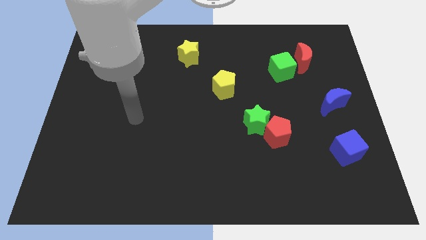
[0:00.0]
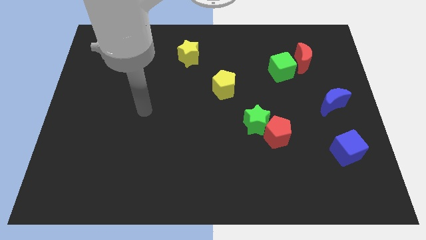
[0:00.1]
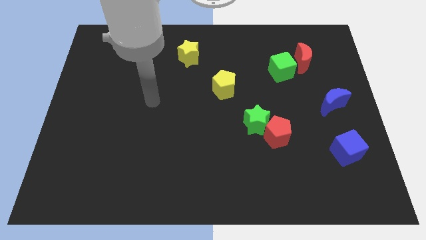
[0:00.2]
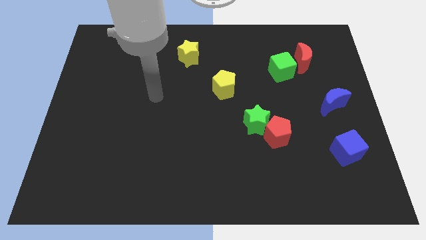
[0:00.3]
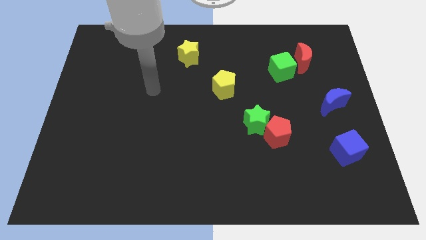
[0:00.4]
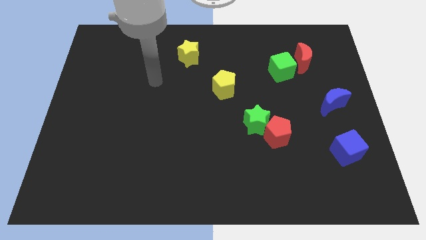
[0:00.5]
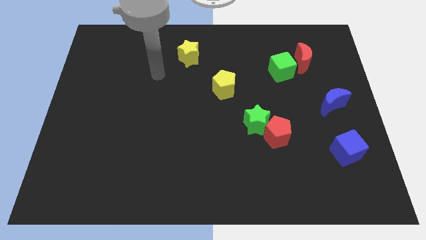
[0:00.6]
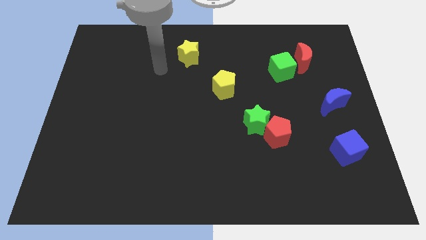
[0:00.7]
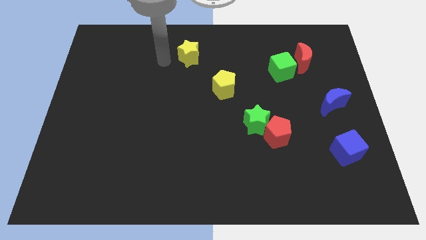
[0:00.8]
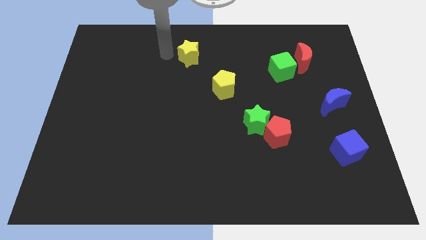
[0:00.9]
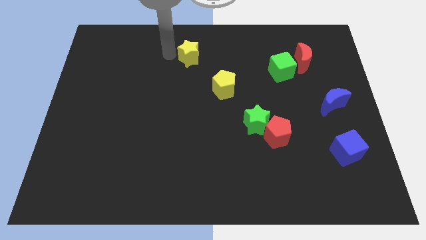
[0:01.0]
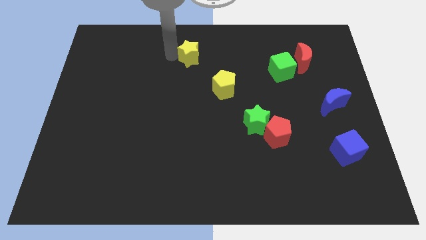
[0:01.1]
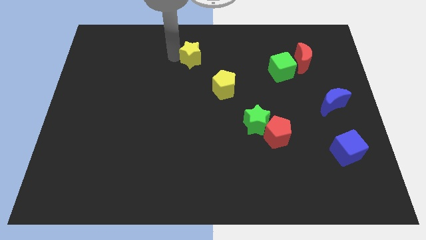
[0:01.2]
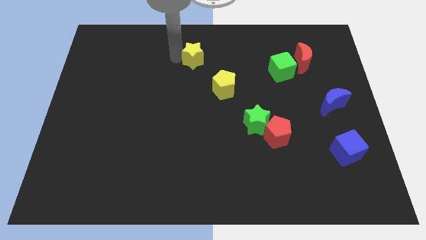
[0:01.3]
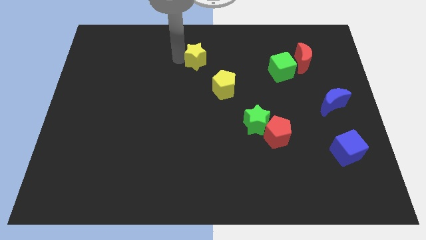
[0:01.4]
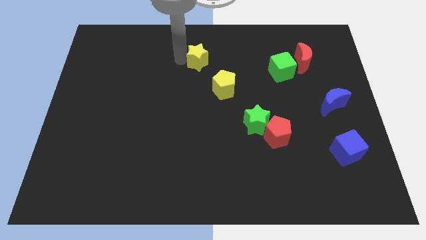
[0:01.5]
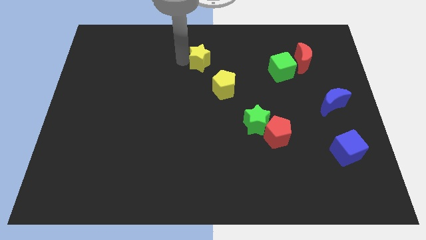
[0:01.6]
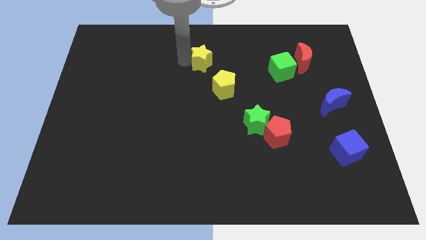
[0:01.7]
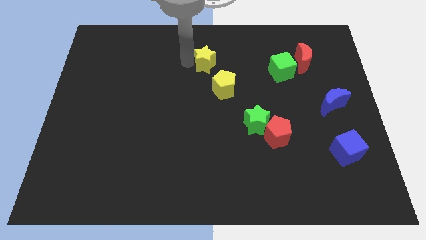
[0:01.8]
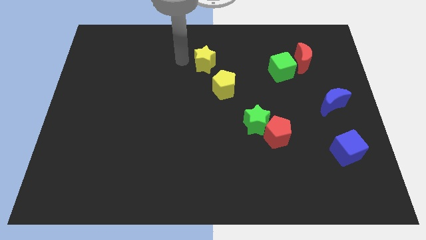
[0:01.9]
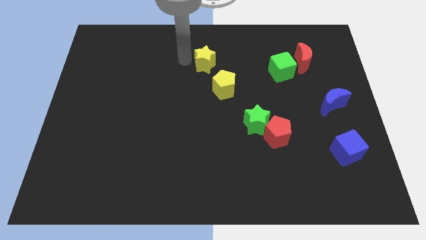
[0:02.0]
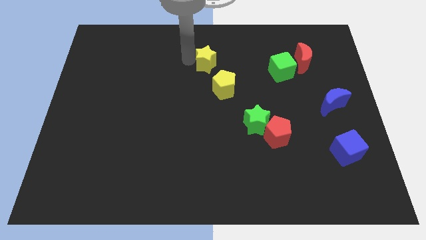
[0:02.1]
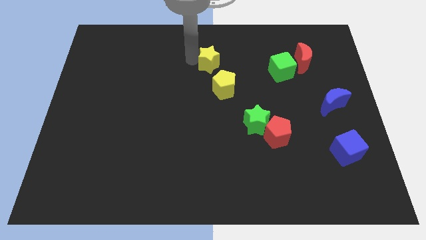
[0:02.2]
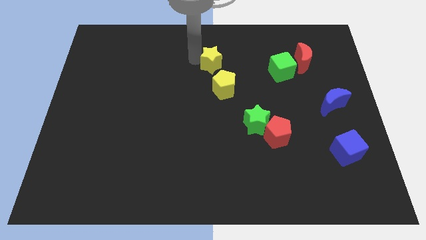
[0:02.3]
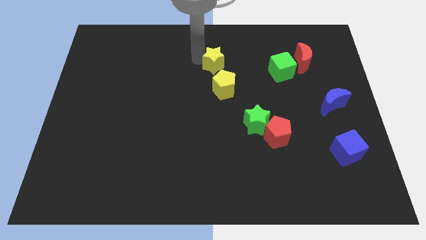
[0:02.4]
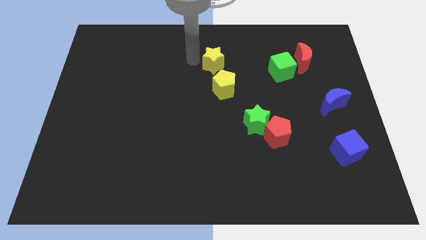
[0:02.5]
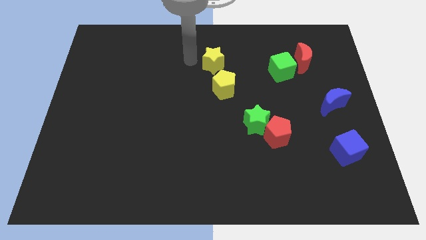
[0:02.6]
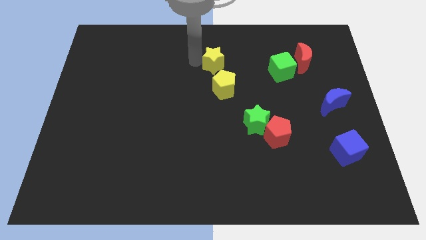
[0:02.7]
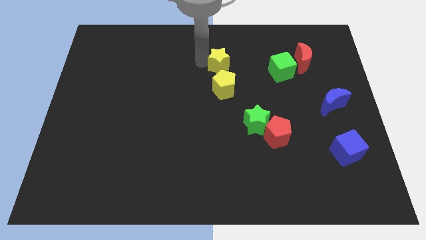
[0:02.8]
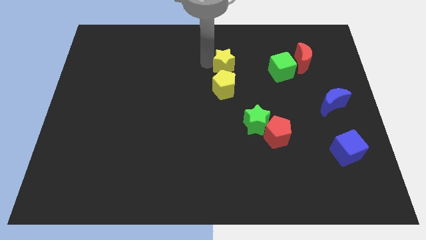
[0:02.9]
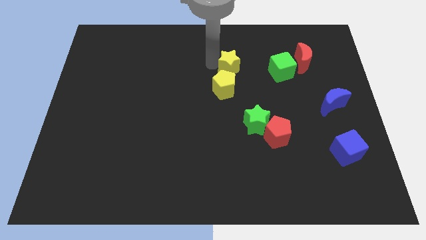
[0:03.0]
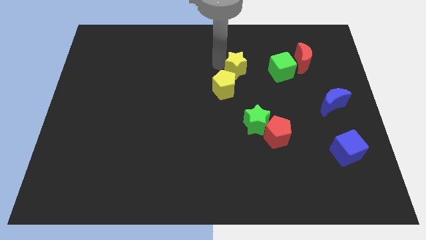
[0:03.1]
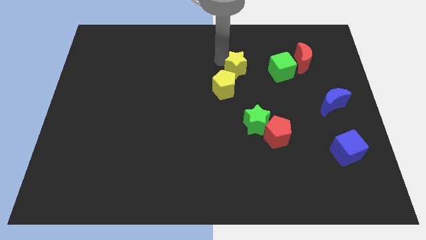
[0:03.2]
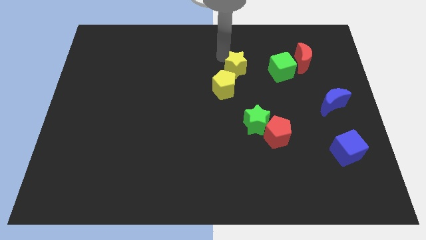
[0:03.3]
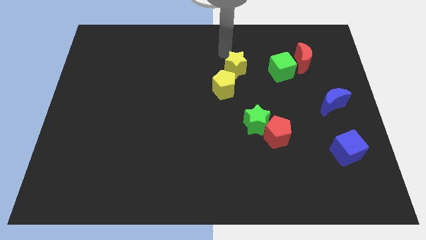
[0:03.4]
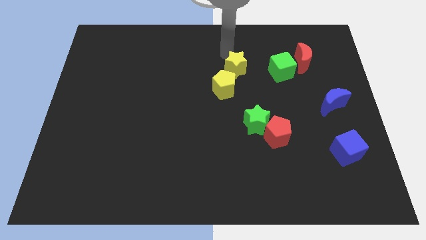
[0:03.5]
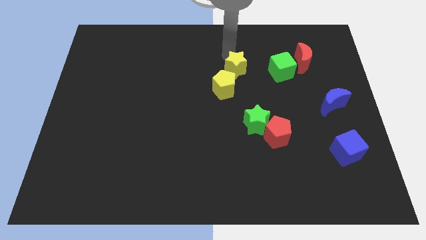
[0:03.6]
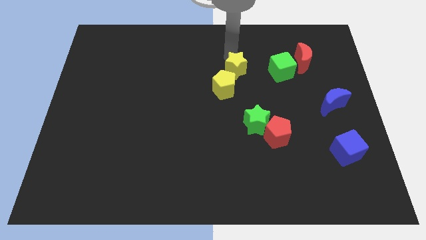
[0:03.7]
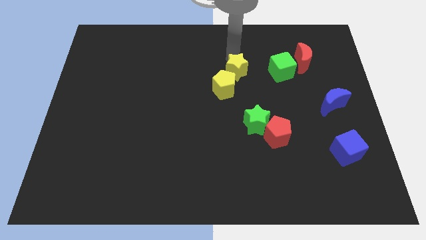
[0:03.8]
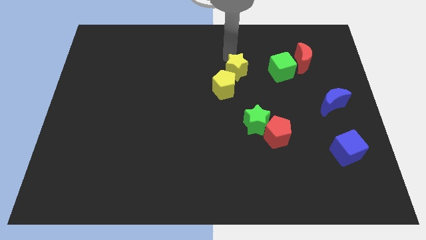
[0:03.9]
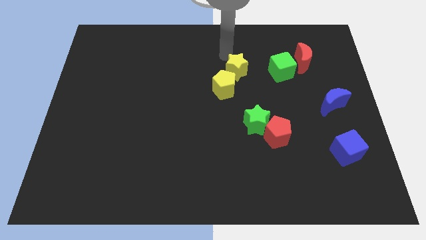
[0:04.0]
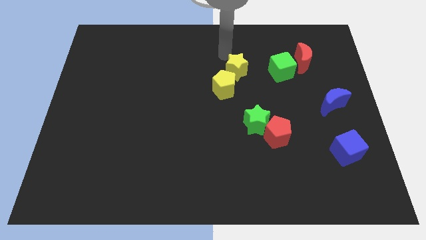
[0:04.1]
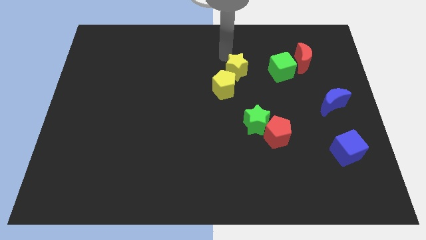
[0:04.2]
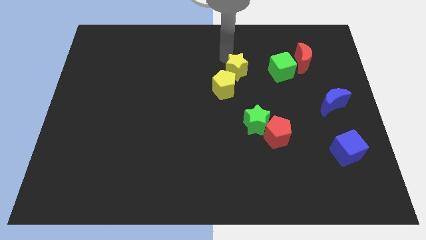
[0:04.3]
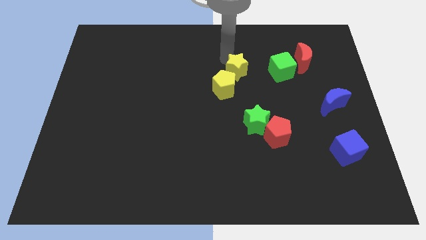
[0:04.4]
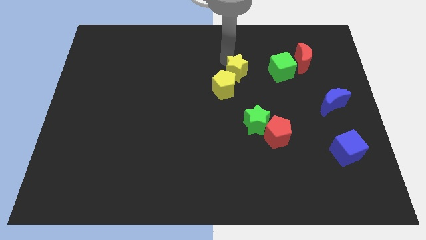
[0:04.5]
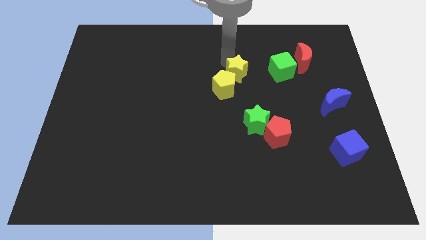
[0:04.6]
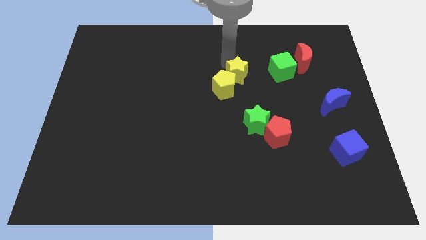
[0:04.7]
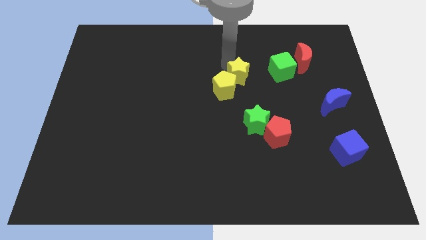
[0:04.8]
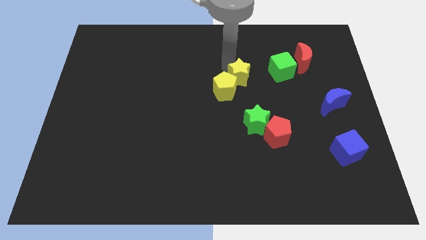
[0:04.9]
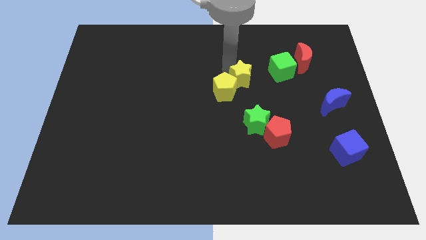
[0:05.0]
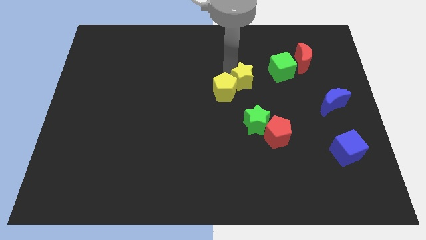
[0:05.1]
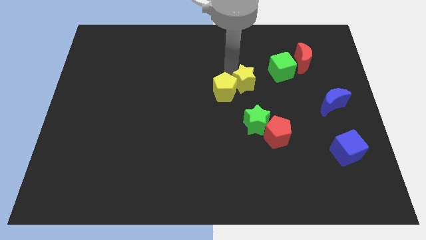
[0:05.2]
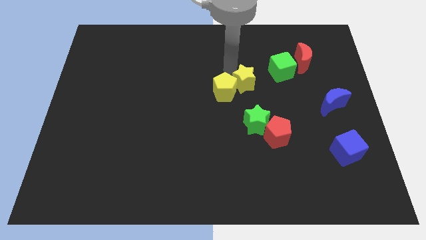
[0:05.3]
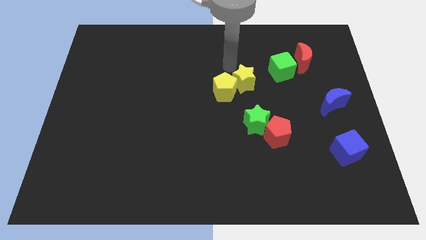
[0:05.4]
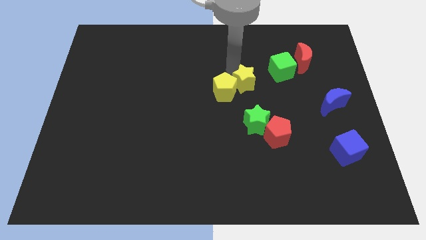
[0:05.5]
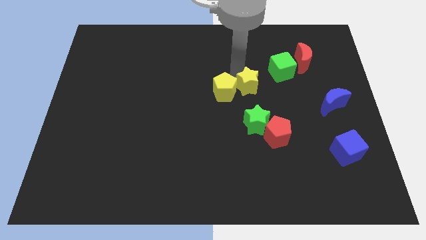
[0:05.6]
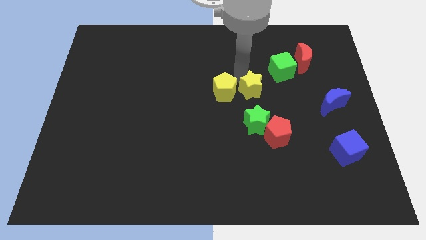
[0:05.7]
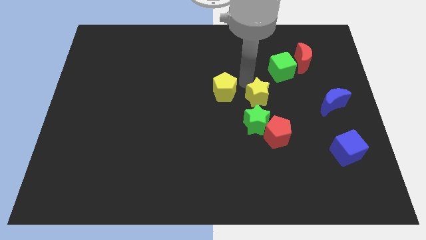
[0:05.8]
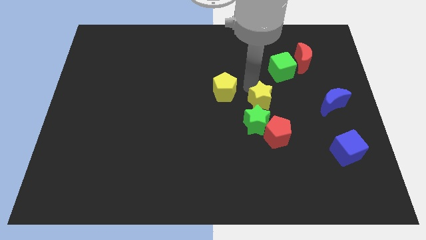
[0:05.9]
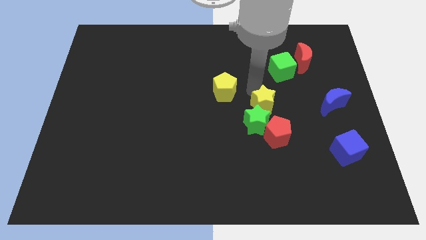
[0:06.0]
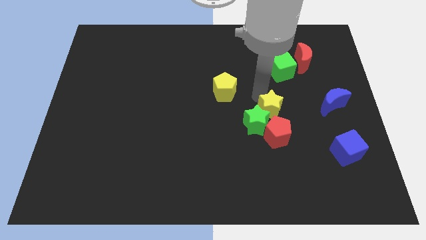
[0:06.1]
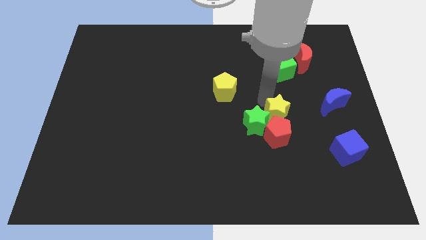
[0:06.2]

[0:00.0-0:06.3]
move the yellow star next to the red pentagon

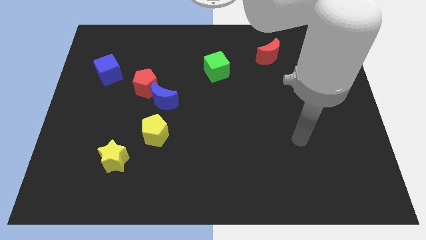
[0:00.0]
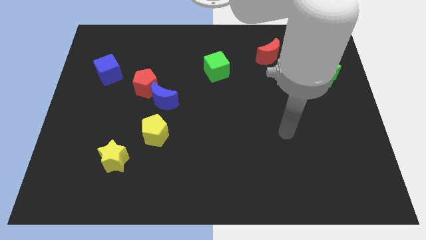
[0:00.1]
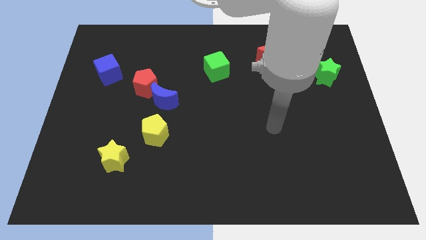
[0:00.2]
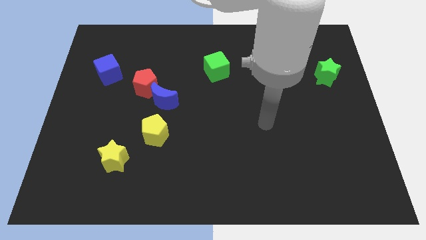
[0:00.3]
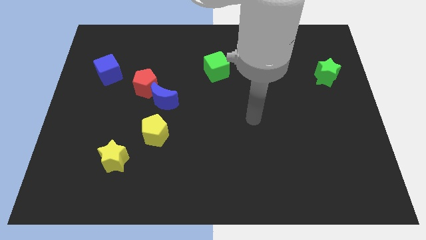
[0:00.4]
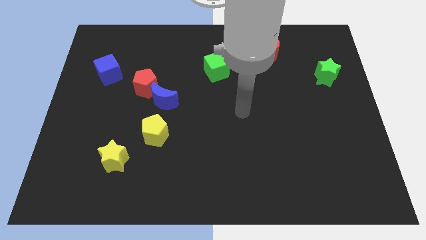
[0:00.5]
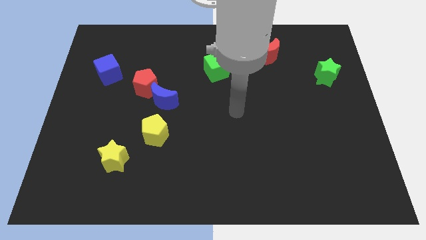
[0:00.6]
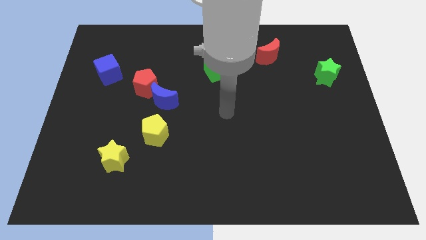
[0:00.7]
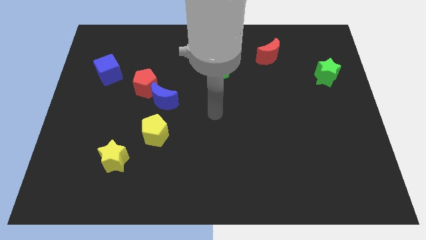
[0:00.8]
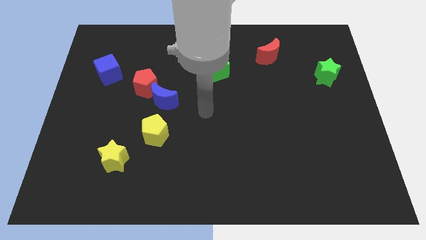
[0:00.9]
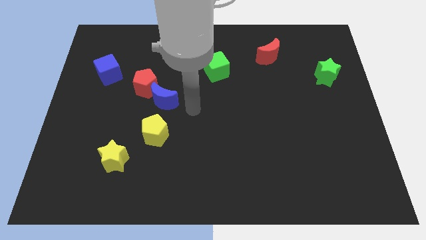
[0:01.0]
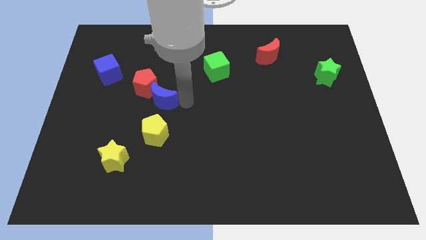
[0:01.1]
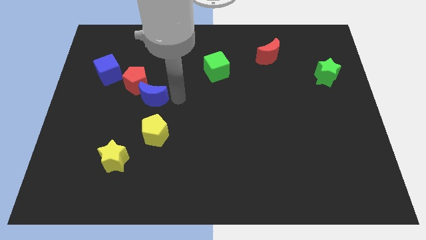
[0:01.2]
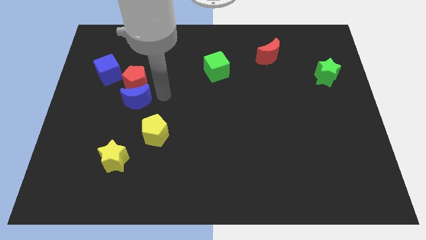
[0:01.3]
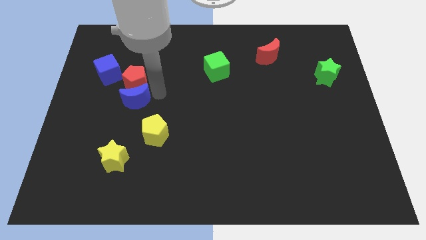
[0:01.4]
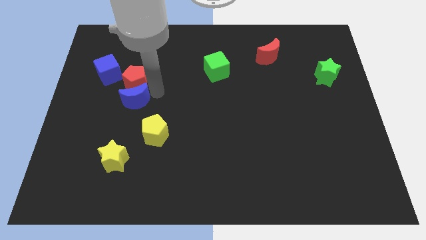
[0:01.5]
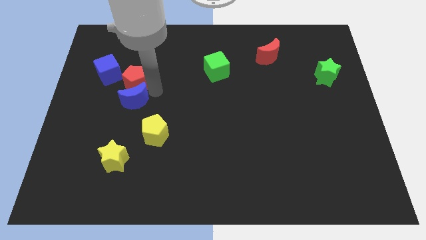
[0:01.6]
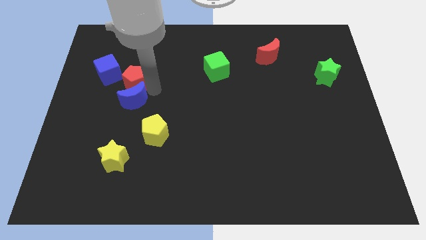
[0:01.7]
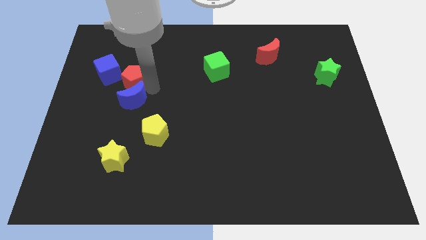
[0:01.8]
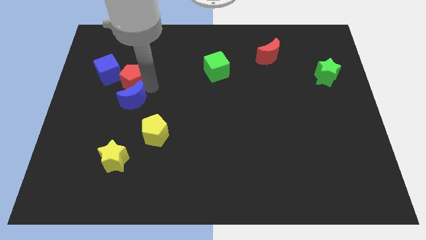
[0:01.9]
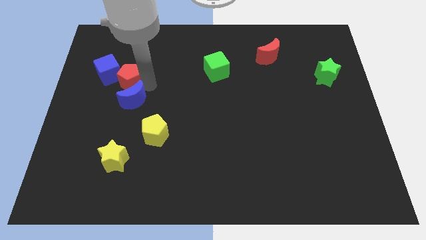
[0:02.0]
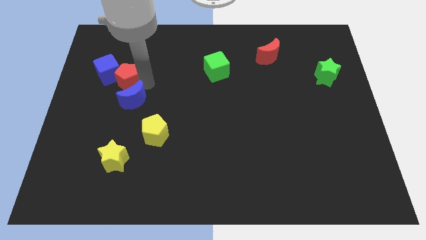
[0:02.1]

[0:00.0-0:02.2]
push the red pentagon next to the blue cube
